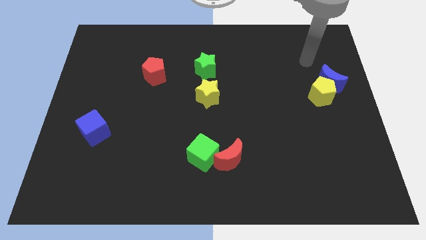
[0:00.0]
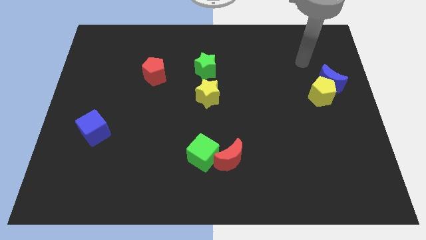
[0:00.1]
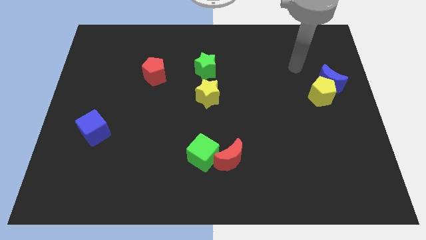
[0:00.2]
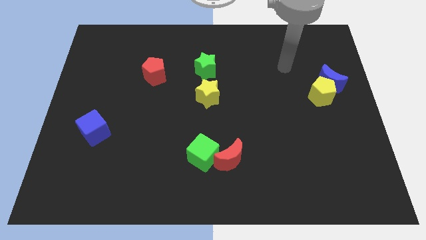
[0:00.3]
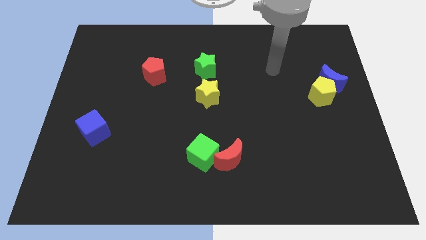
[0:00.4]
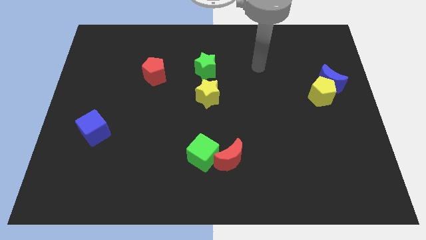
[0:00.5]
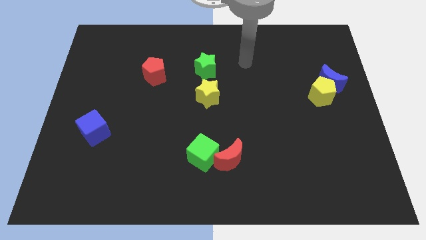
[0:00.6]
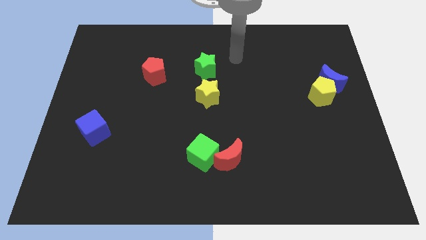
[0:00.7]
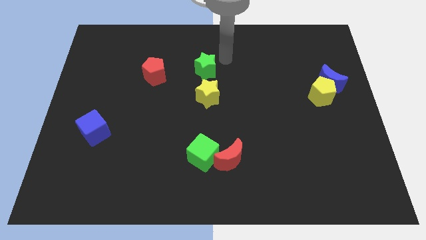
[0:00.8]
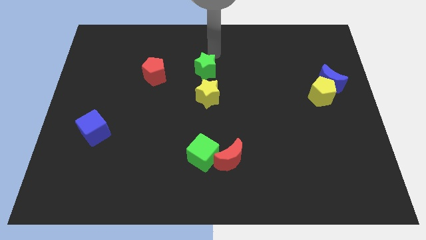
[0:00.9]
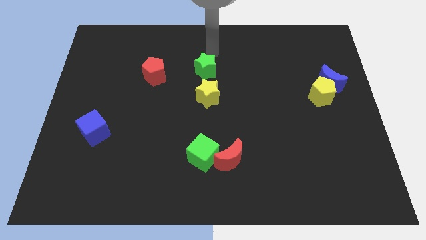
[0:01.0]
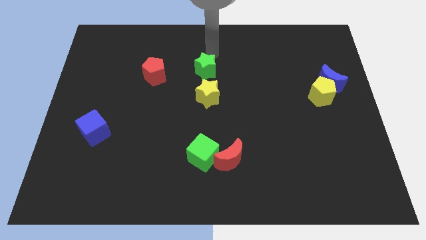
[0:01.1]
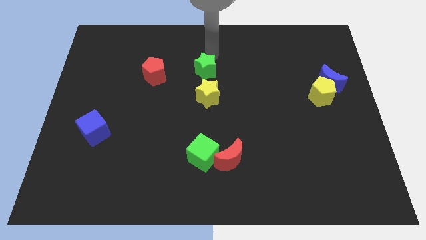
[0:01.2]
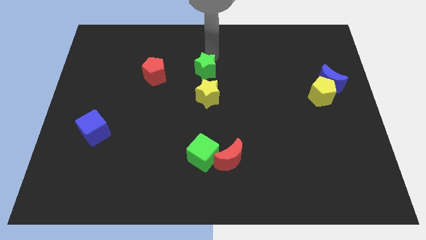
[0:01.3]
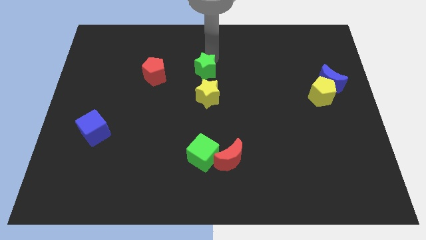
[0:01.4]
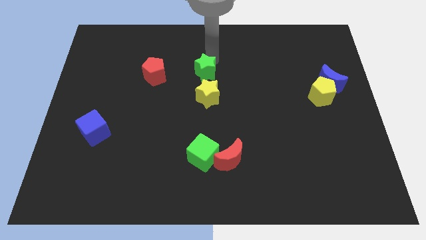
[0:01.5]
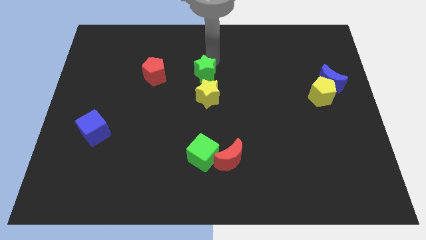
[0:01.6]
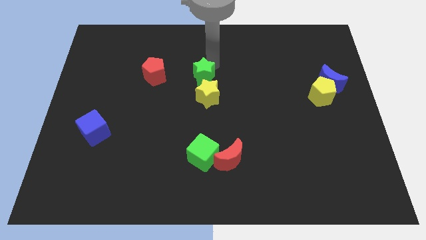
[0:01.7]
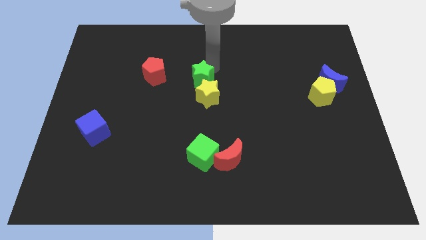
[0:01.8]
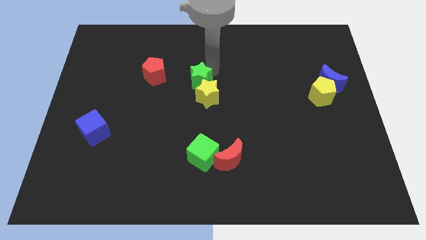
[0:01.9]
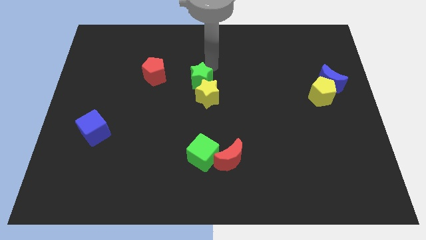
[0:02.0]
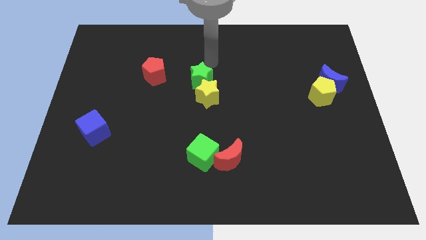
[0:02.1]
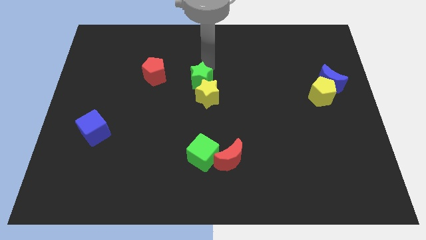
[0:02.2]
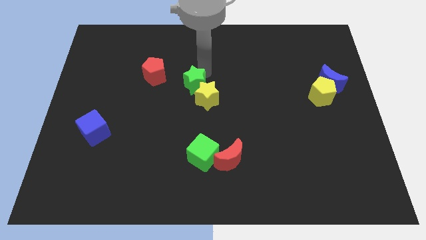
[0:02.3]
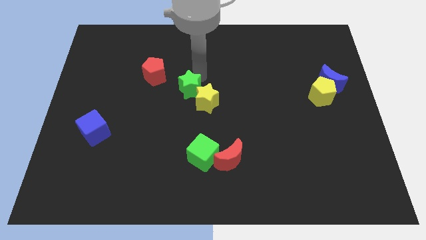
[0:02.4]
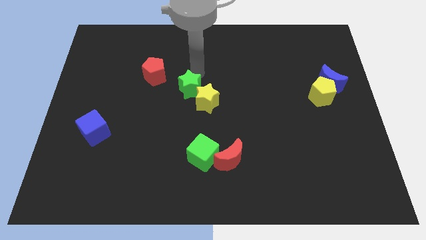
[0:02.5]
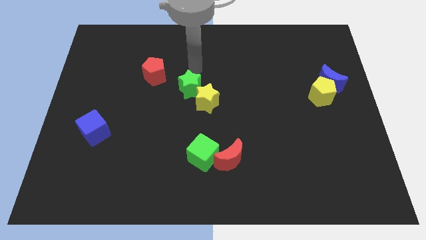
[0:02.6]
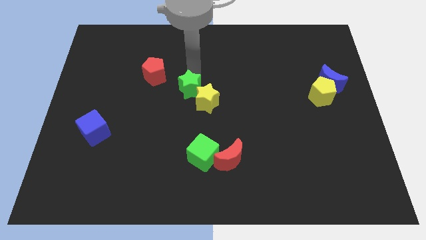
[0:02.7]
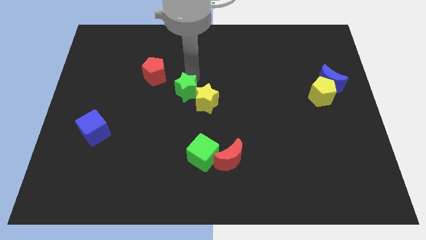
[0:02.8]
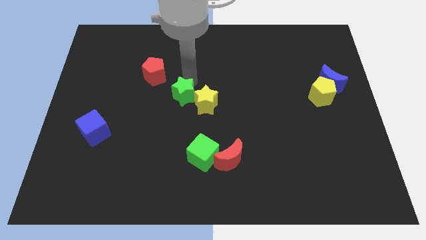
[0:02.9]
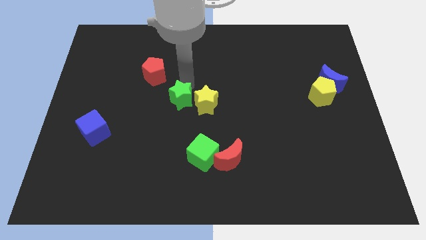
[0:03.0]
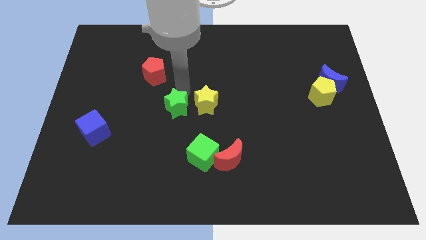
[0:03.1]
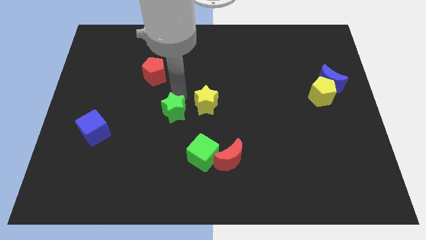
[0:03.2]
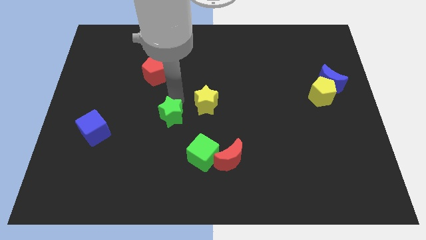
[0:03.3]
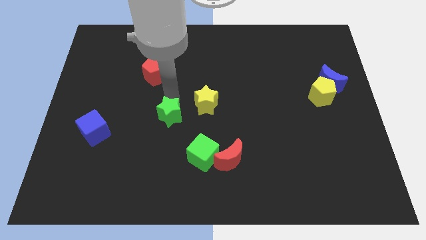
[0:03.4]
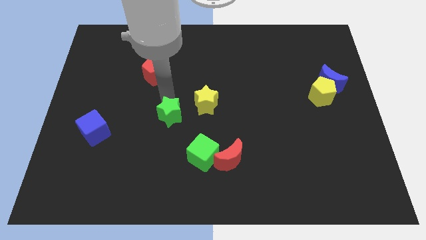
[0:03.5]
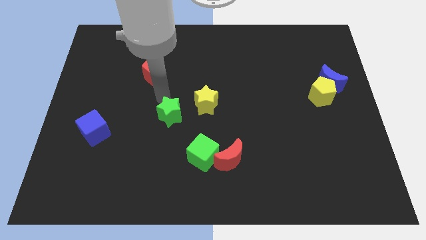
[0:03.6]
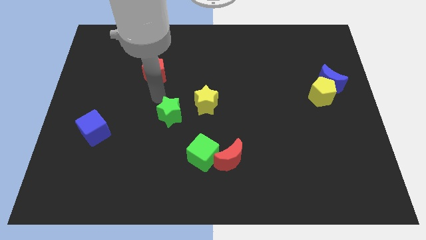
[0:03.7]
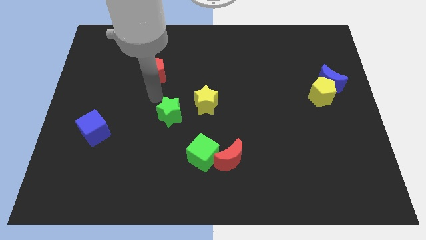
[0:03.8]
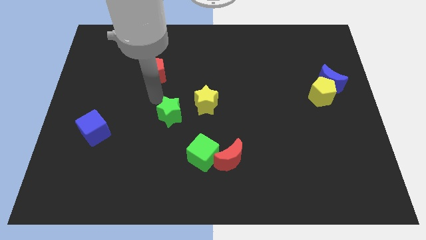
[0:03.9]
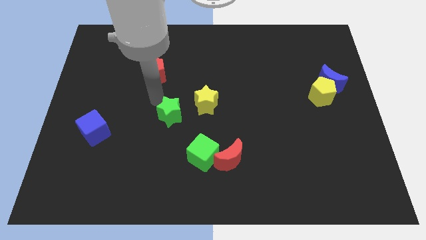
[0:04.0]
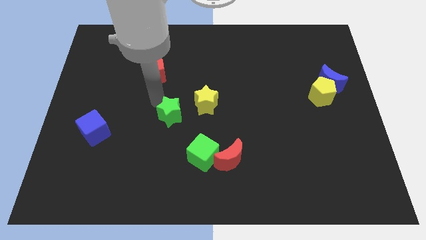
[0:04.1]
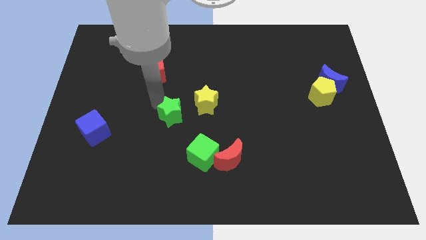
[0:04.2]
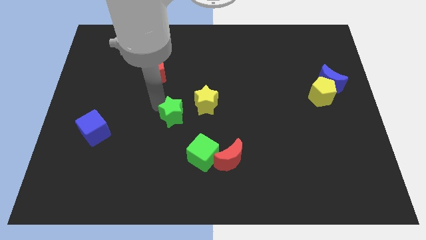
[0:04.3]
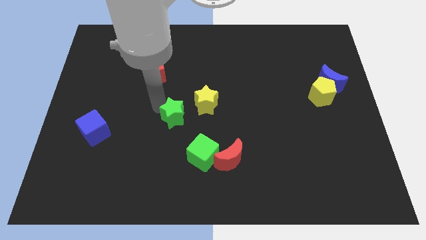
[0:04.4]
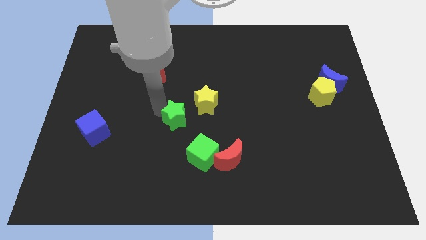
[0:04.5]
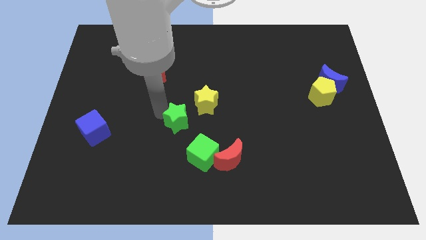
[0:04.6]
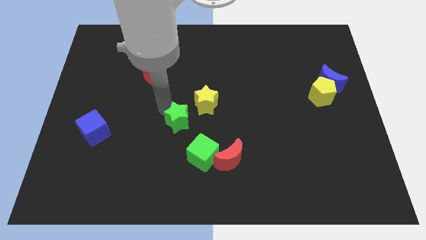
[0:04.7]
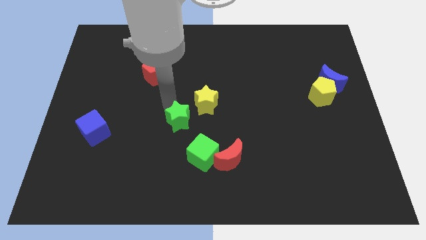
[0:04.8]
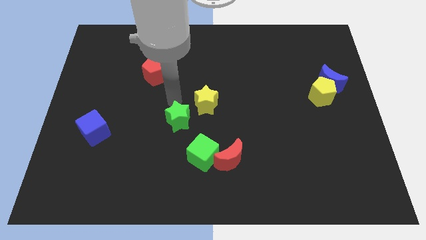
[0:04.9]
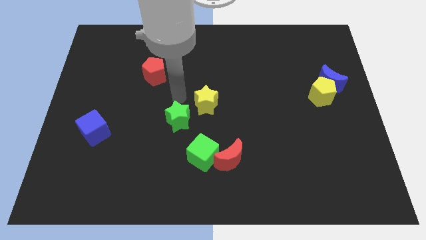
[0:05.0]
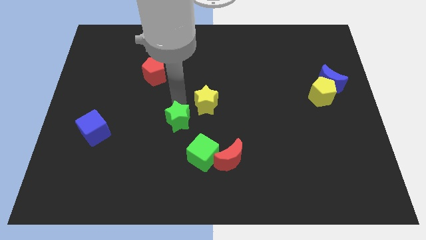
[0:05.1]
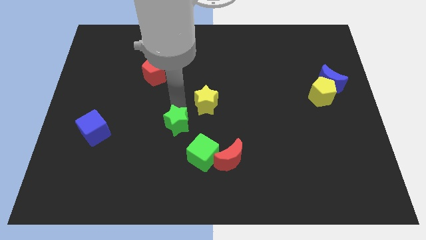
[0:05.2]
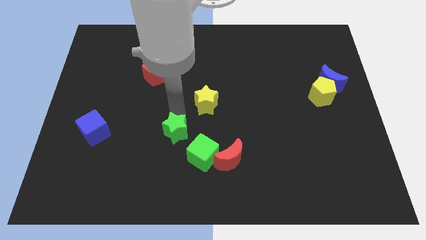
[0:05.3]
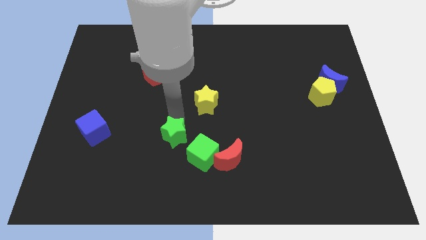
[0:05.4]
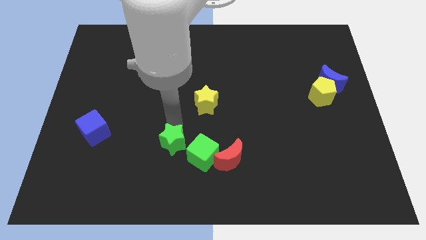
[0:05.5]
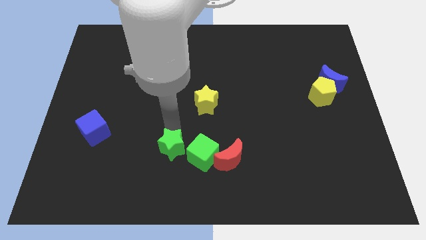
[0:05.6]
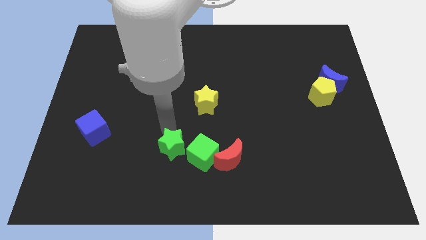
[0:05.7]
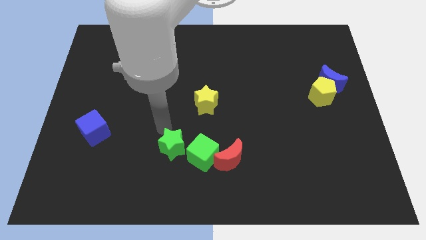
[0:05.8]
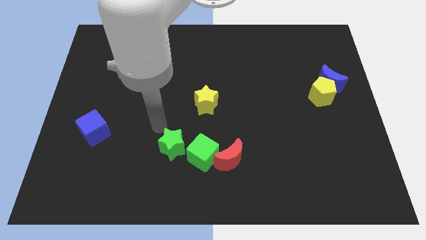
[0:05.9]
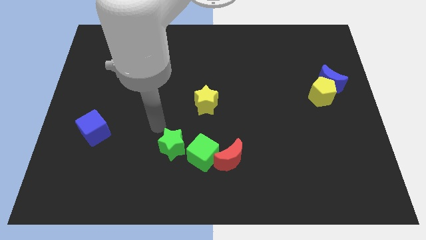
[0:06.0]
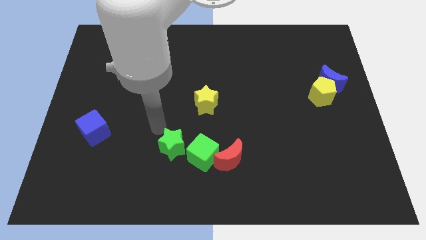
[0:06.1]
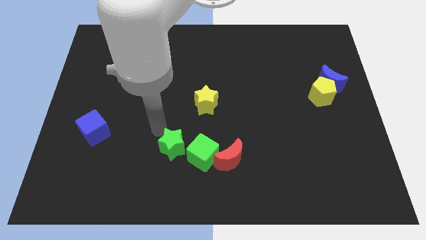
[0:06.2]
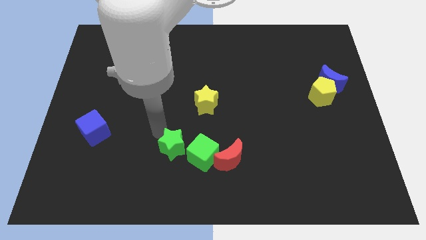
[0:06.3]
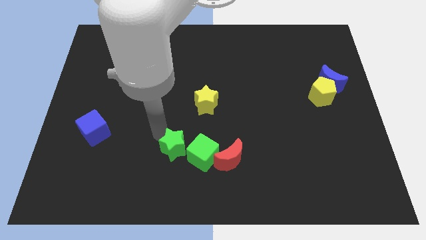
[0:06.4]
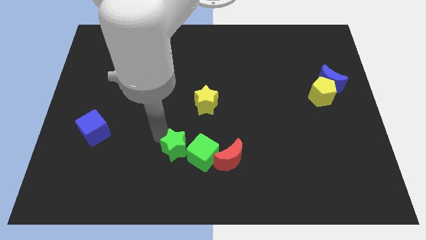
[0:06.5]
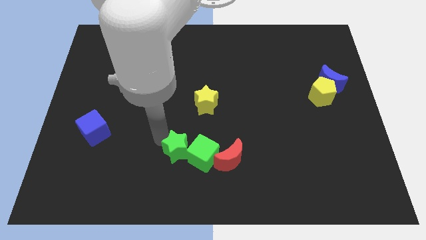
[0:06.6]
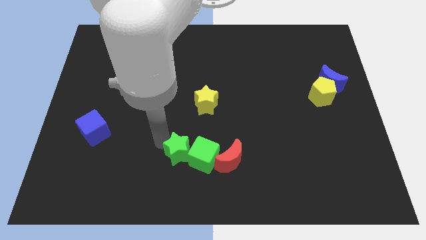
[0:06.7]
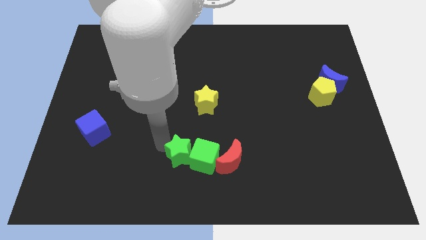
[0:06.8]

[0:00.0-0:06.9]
slide the green star to the bottom left side of the green cube

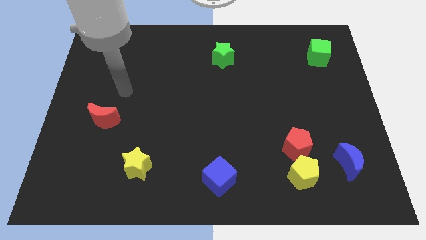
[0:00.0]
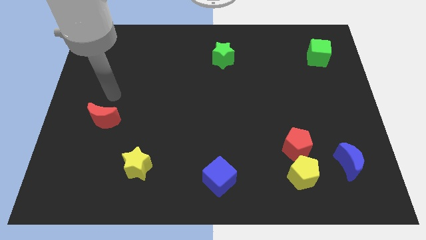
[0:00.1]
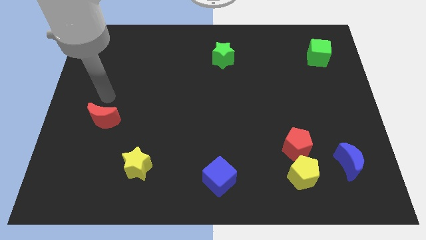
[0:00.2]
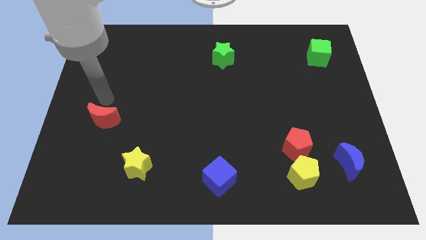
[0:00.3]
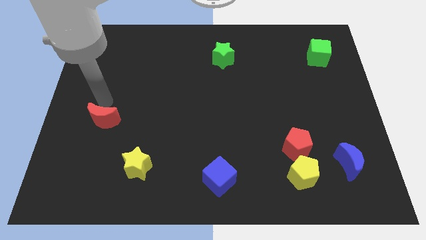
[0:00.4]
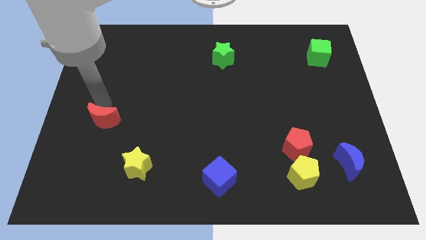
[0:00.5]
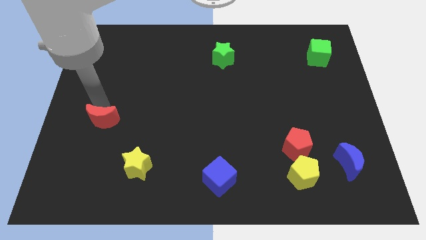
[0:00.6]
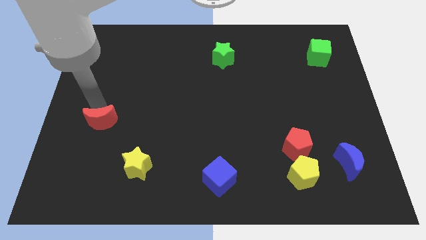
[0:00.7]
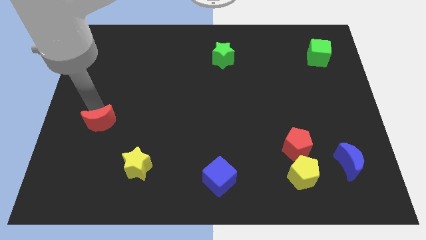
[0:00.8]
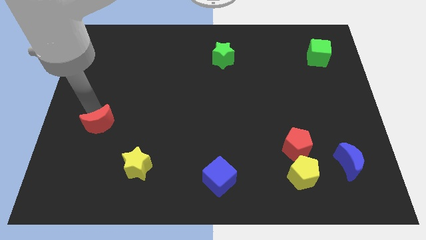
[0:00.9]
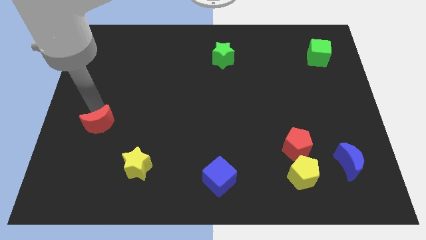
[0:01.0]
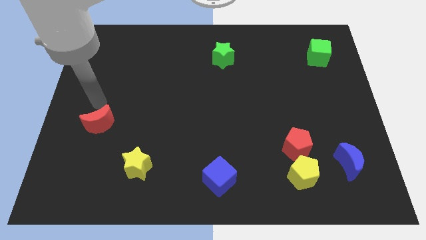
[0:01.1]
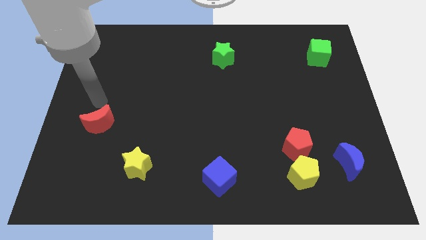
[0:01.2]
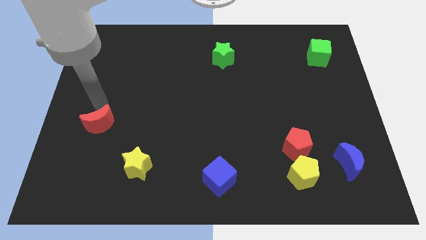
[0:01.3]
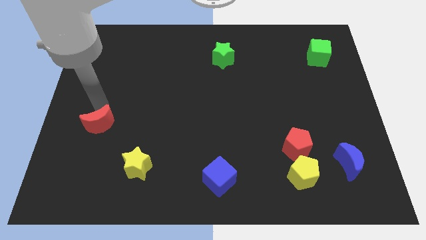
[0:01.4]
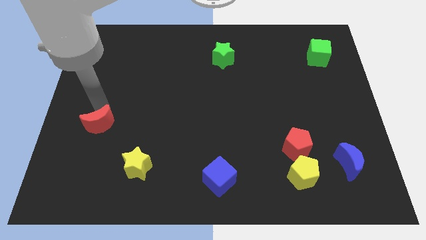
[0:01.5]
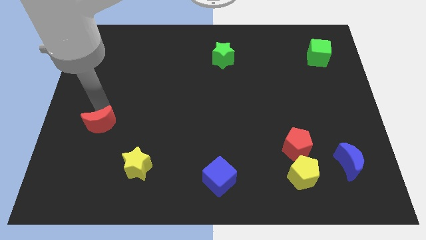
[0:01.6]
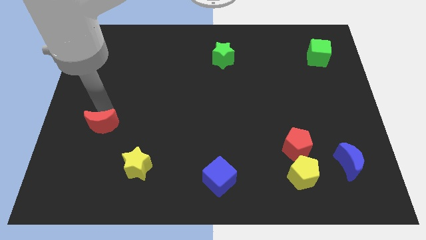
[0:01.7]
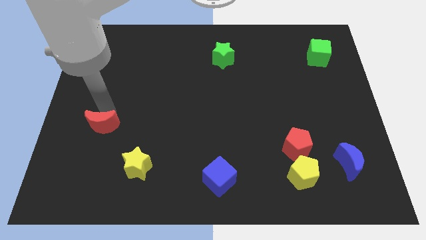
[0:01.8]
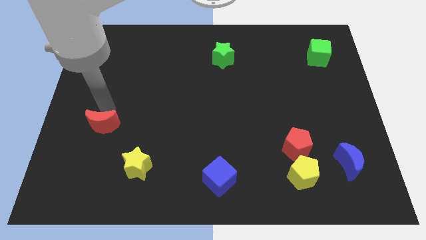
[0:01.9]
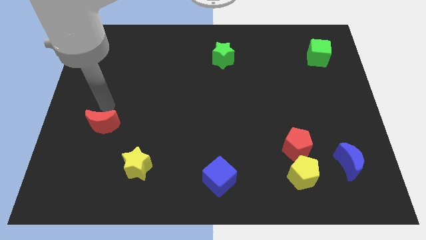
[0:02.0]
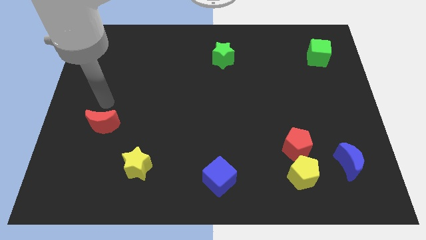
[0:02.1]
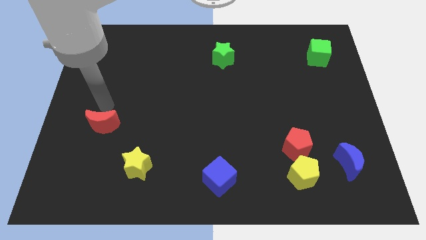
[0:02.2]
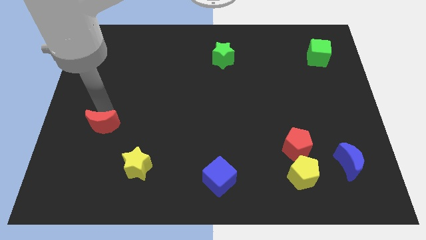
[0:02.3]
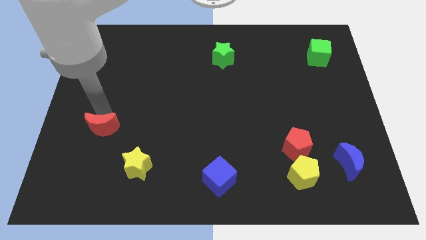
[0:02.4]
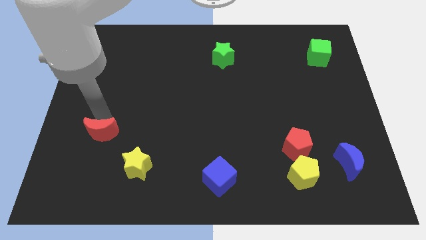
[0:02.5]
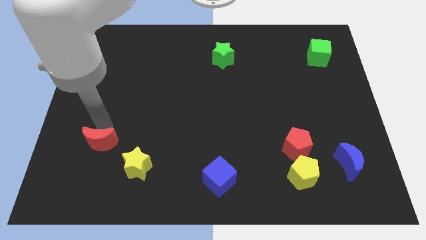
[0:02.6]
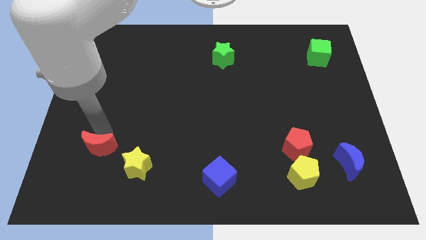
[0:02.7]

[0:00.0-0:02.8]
put the red moon left of the yellow star
